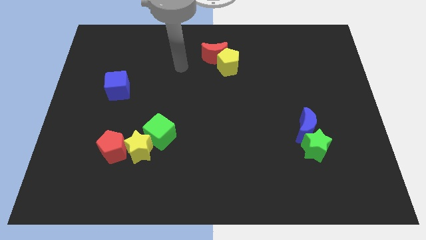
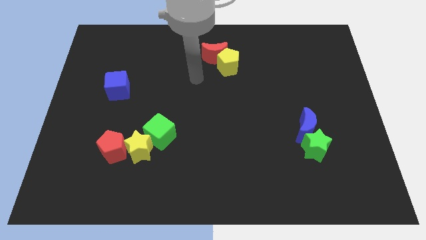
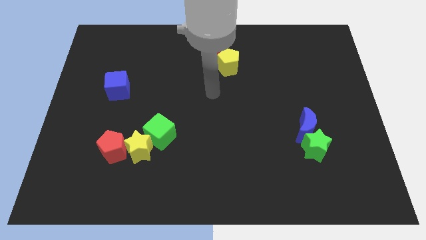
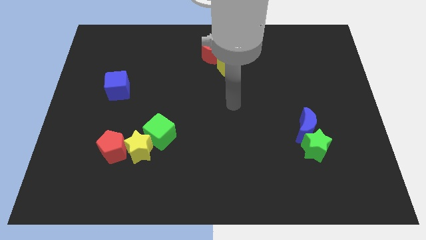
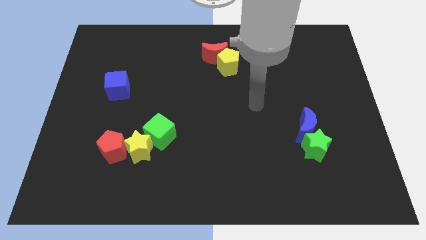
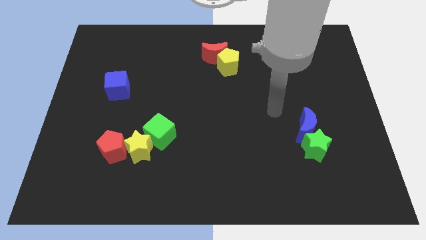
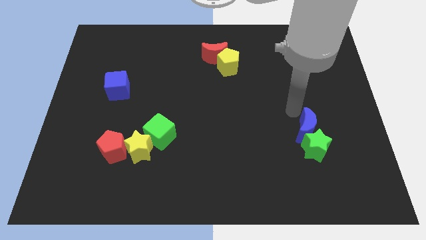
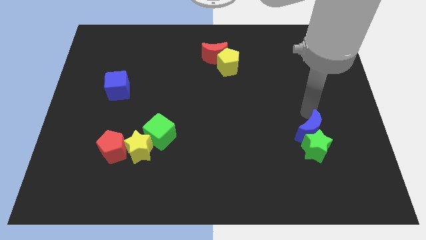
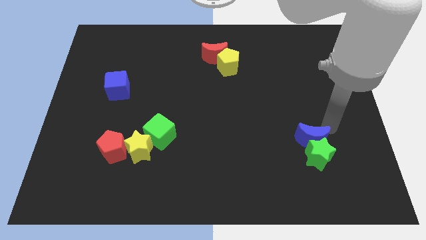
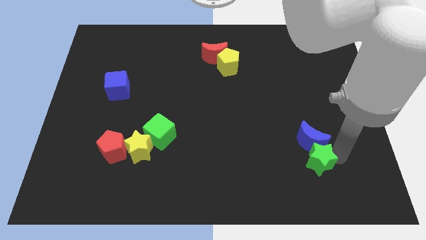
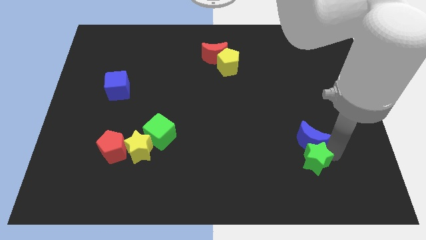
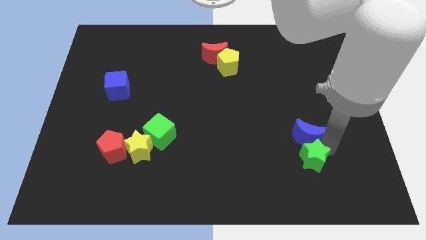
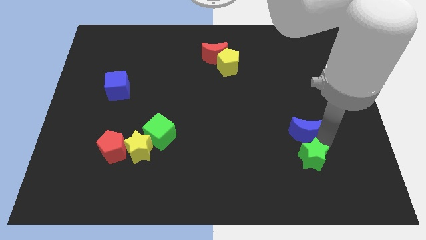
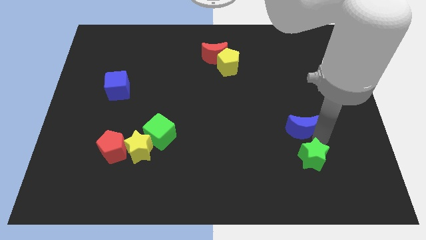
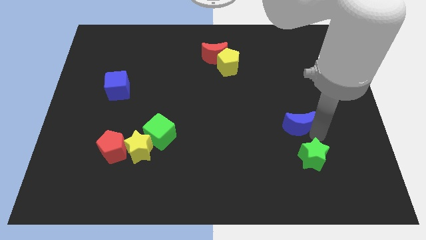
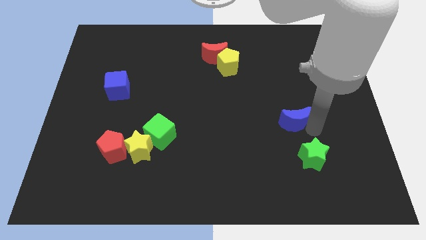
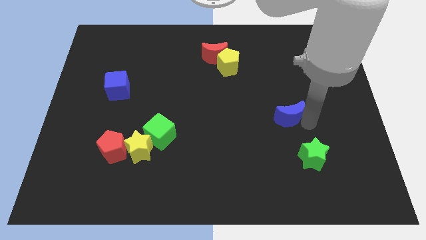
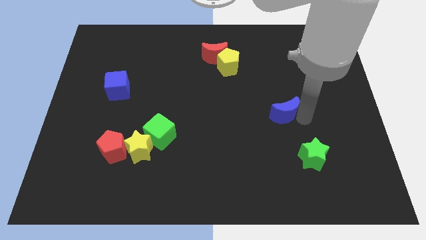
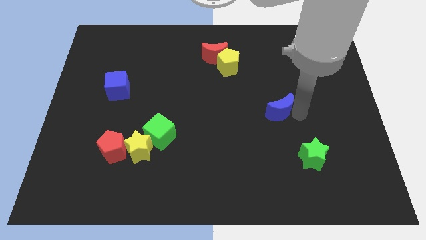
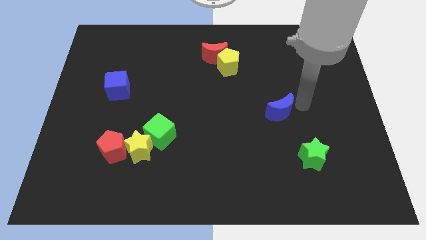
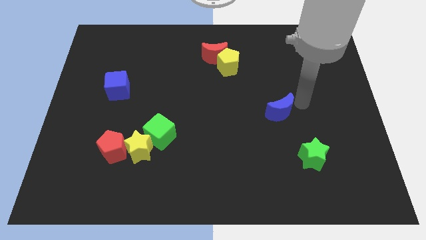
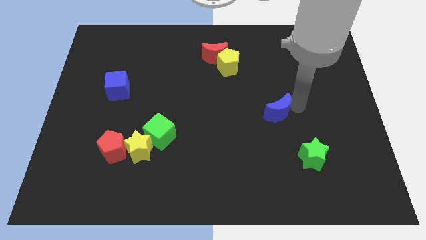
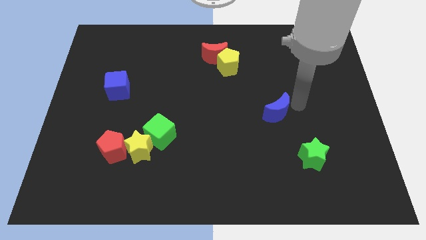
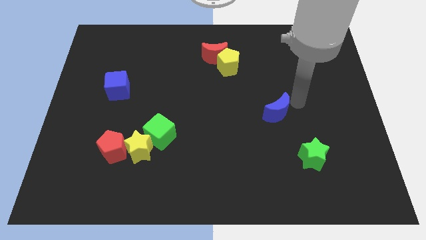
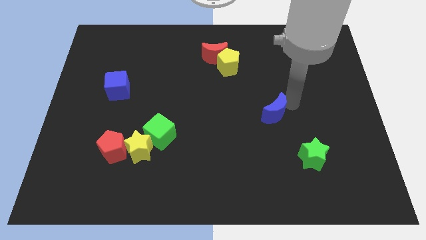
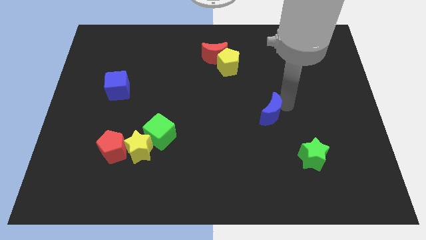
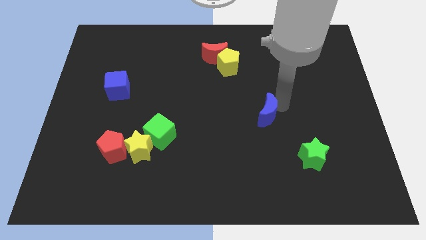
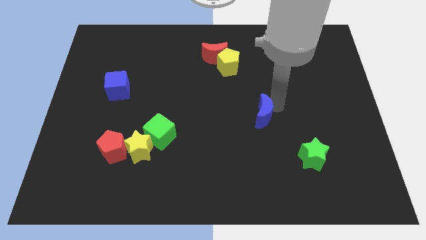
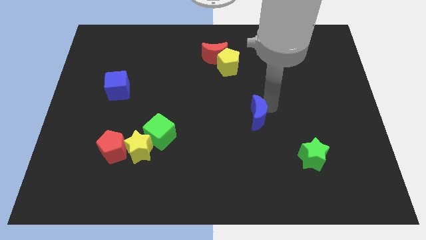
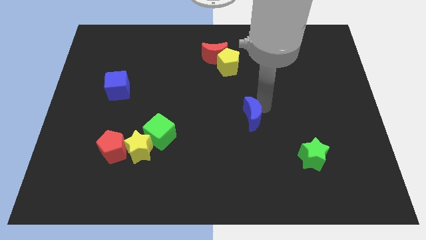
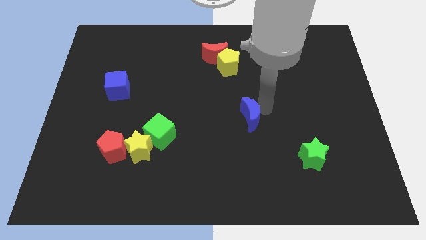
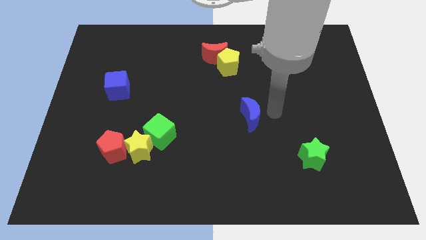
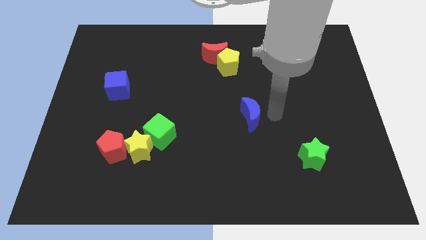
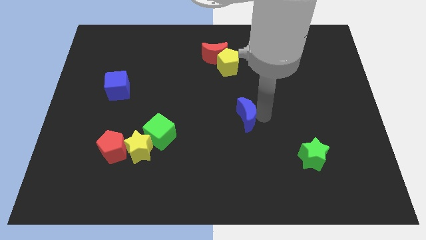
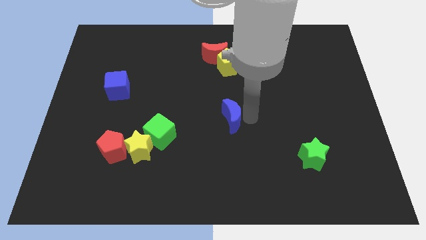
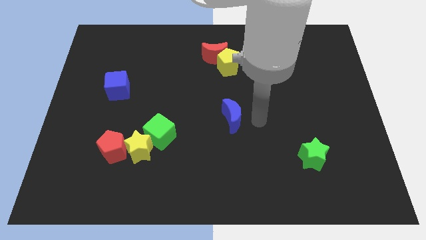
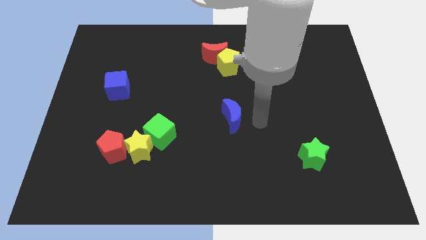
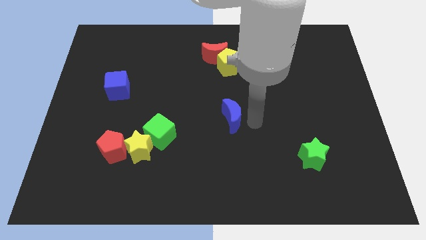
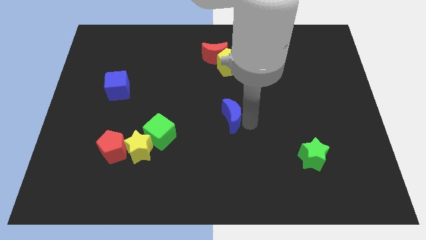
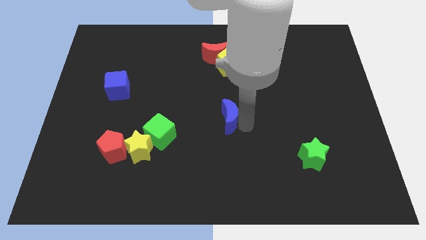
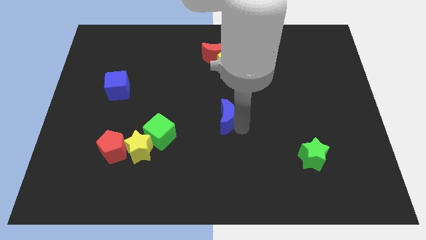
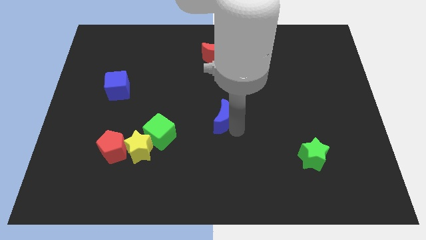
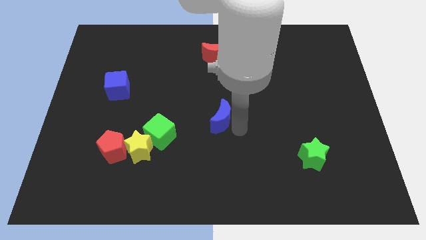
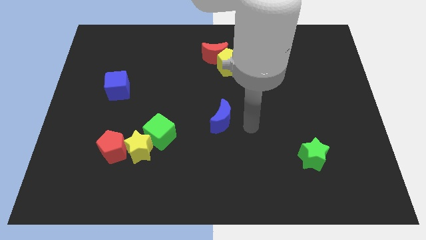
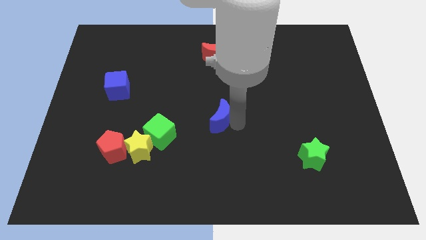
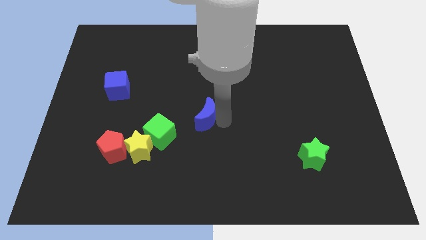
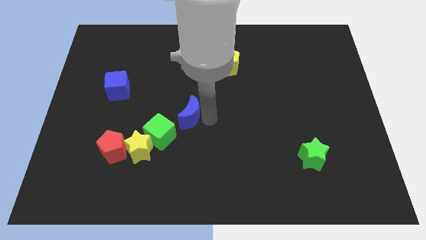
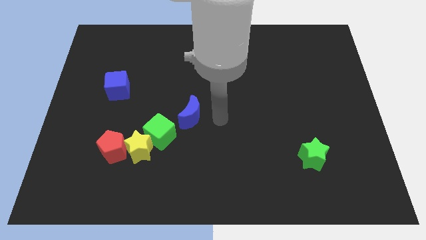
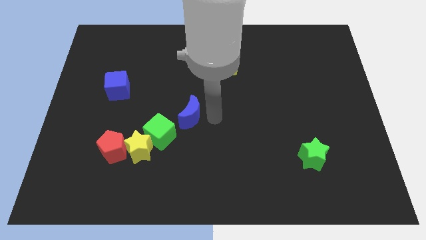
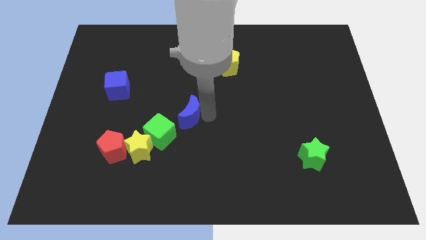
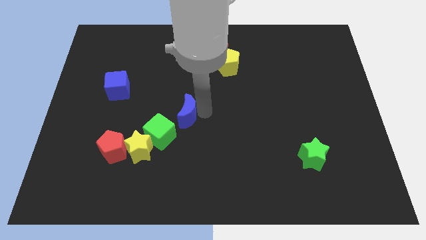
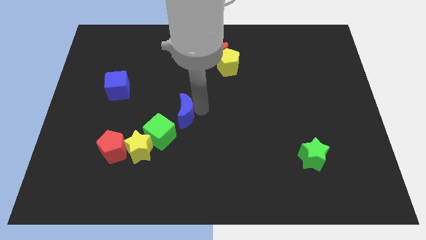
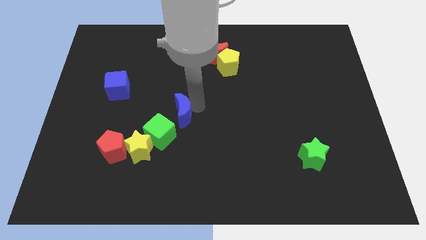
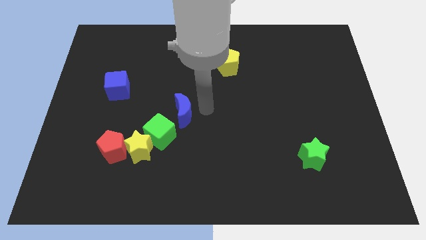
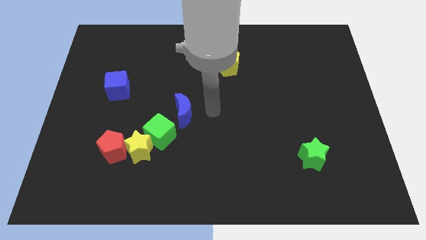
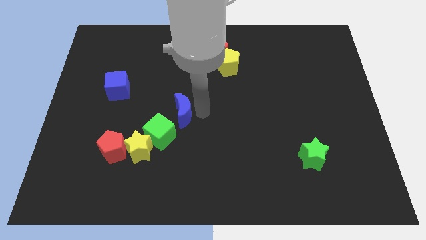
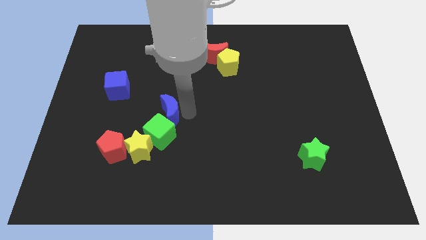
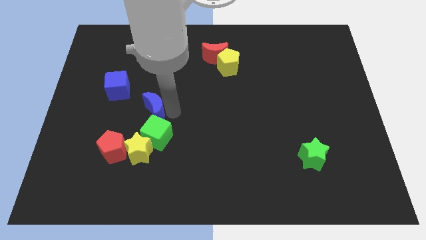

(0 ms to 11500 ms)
move the blue moon to the top left side of the green cube
